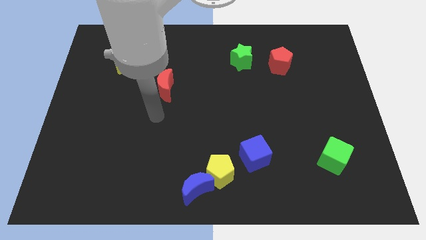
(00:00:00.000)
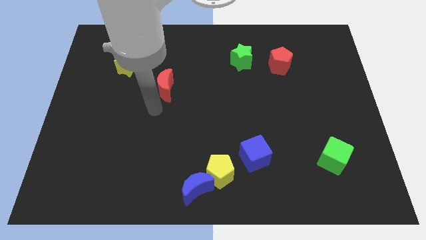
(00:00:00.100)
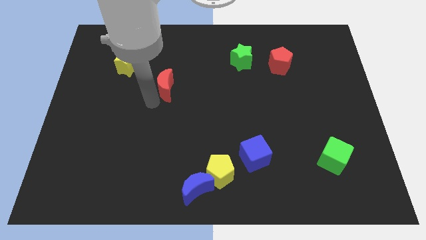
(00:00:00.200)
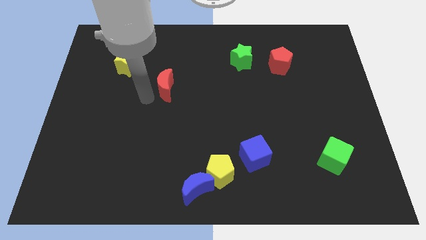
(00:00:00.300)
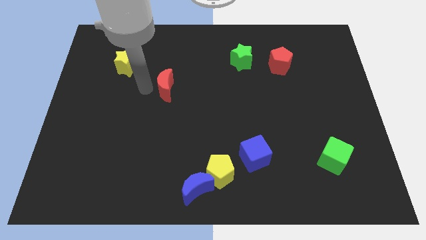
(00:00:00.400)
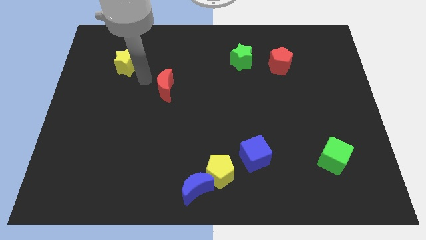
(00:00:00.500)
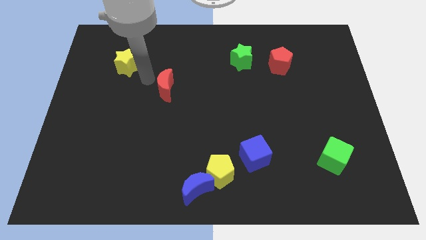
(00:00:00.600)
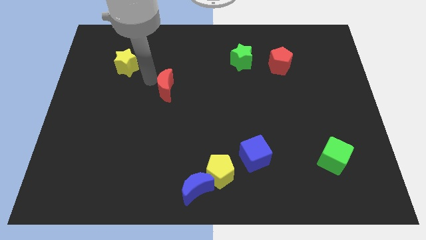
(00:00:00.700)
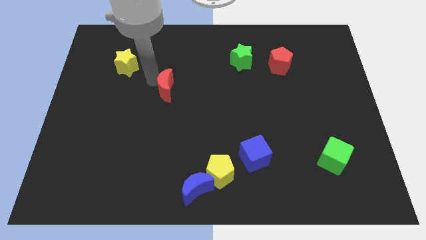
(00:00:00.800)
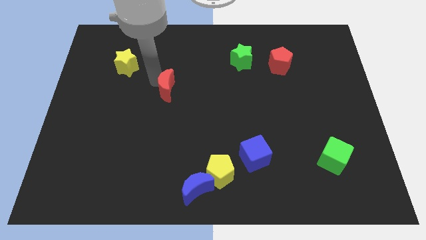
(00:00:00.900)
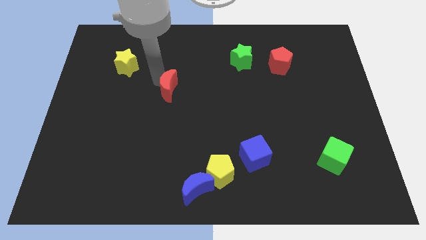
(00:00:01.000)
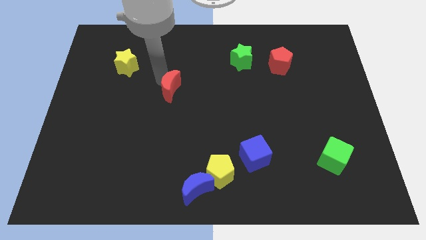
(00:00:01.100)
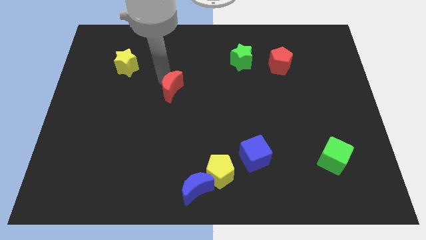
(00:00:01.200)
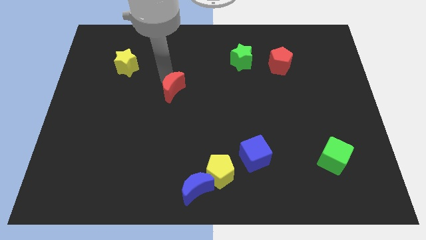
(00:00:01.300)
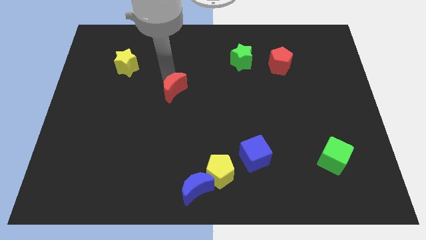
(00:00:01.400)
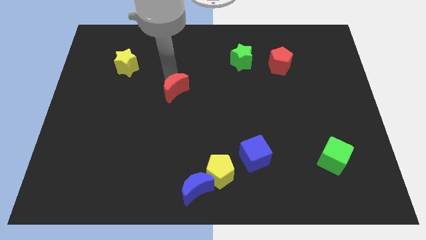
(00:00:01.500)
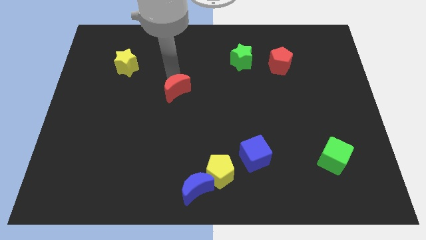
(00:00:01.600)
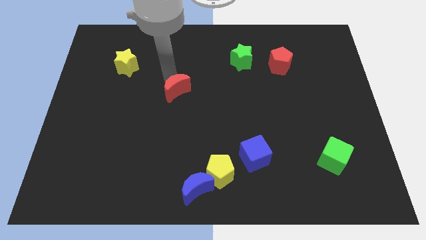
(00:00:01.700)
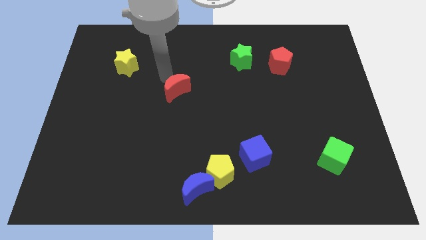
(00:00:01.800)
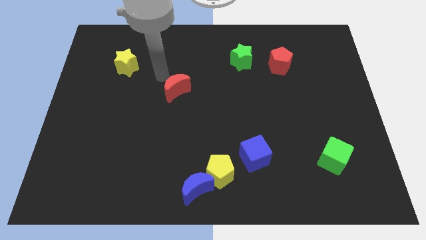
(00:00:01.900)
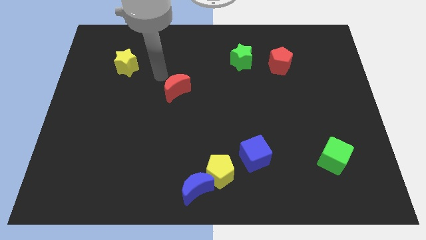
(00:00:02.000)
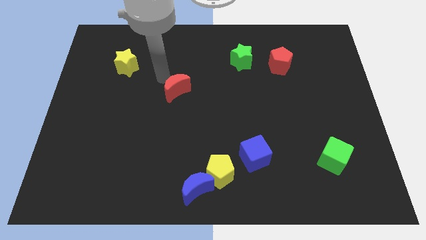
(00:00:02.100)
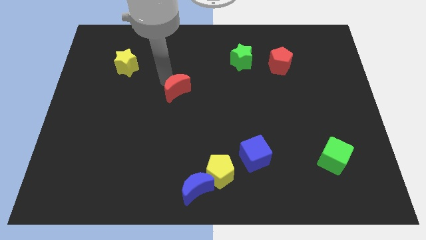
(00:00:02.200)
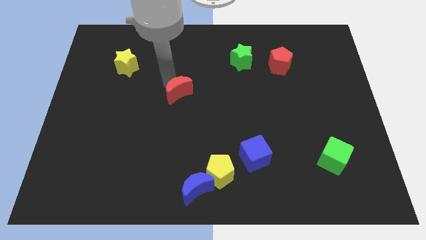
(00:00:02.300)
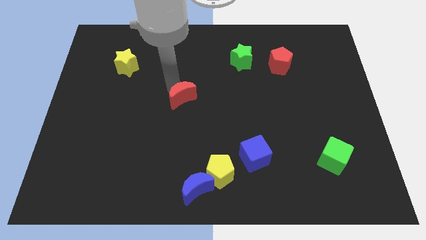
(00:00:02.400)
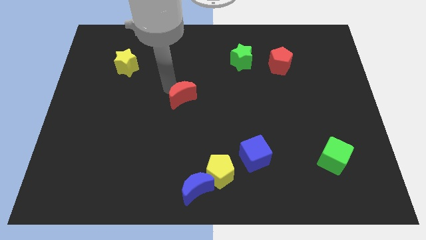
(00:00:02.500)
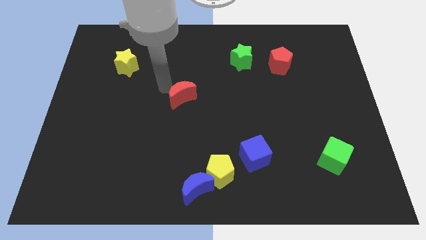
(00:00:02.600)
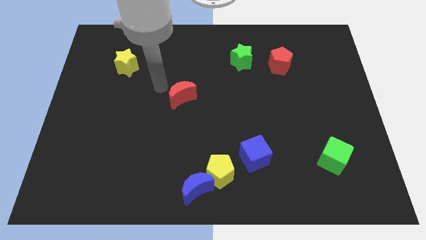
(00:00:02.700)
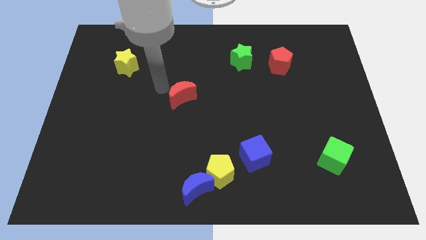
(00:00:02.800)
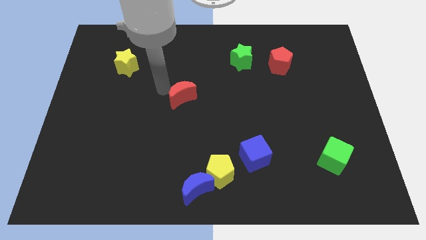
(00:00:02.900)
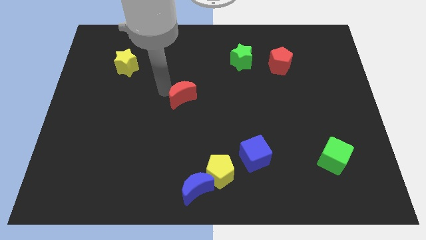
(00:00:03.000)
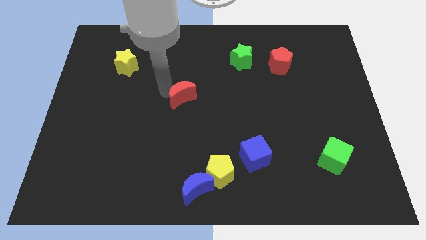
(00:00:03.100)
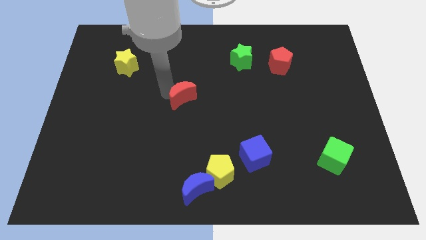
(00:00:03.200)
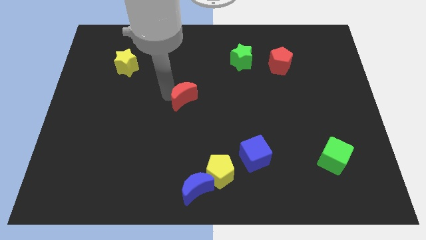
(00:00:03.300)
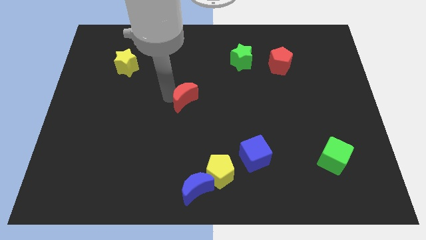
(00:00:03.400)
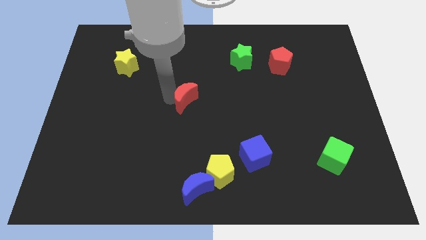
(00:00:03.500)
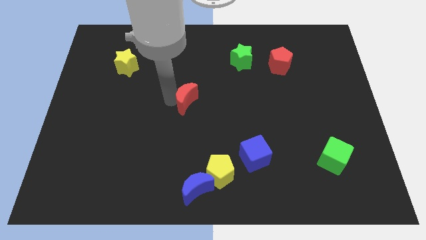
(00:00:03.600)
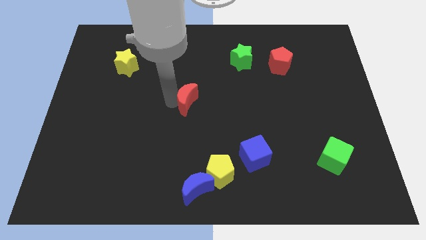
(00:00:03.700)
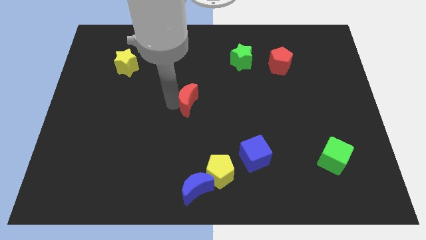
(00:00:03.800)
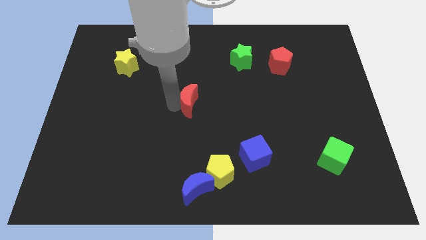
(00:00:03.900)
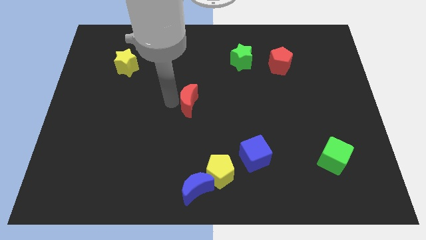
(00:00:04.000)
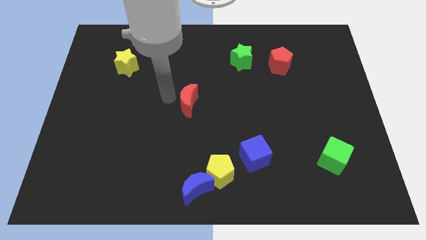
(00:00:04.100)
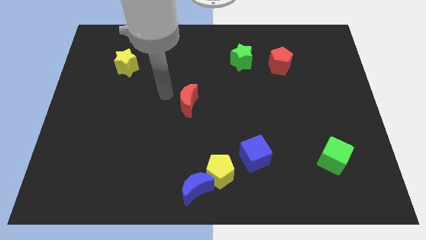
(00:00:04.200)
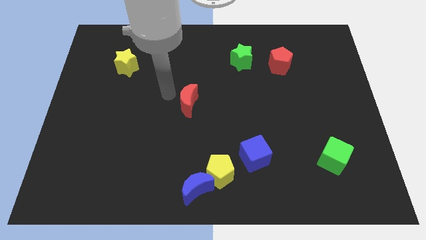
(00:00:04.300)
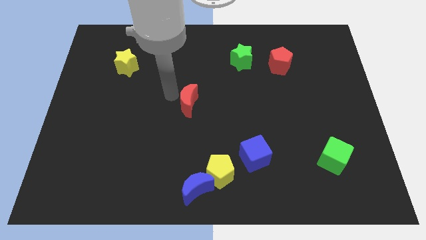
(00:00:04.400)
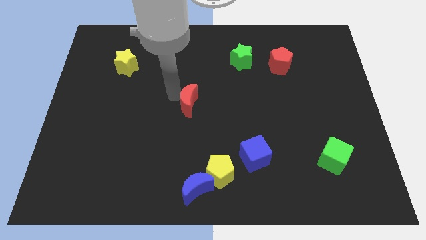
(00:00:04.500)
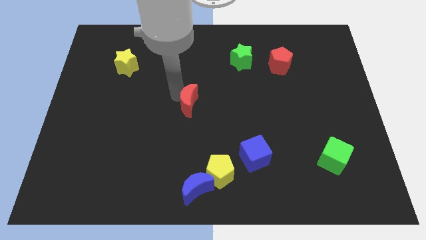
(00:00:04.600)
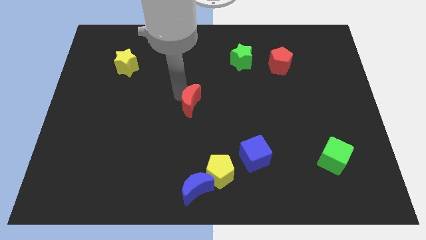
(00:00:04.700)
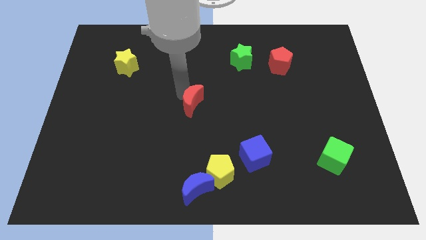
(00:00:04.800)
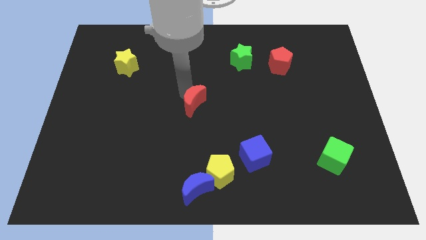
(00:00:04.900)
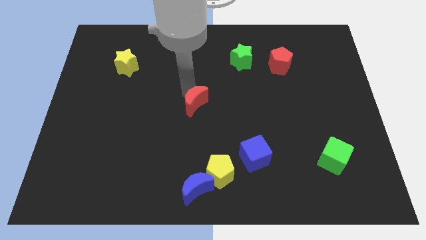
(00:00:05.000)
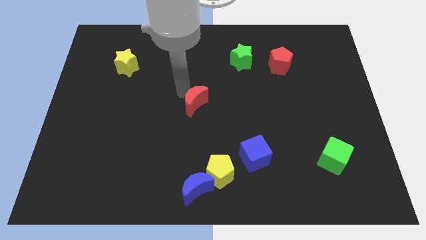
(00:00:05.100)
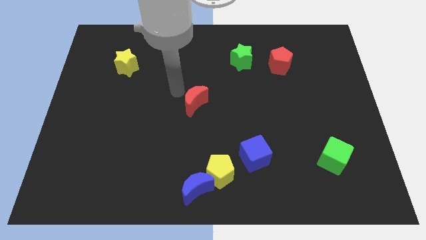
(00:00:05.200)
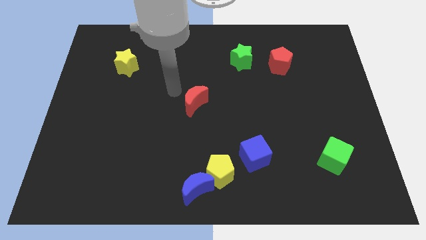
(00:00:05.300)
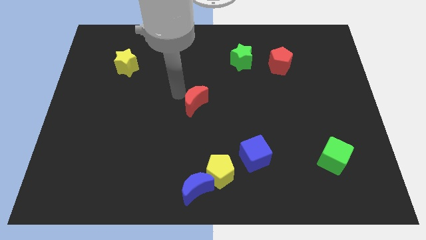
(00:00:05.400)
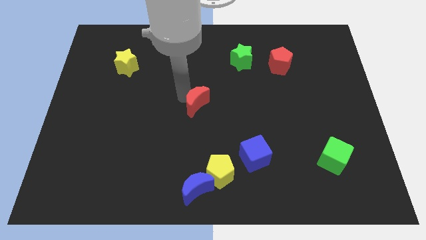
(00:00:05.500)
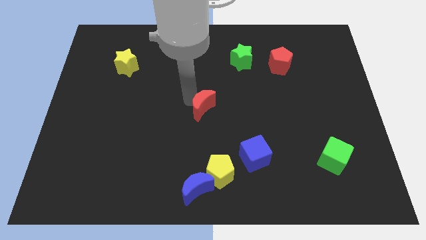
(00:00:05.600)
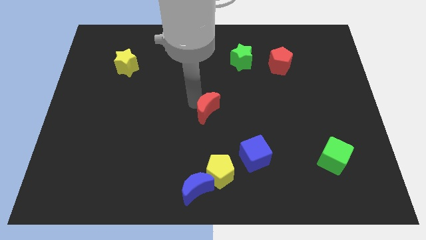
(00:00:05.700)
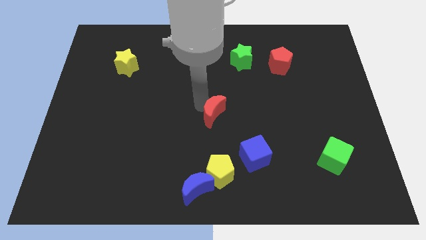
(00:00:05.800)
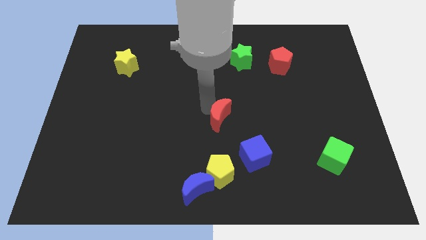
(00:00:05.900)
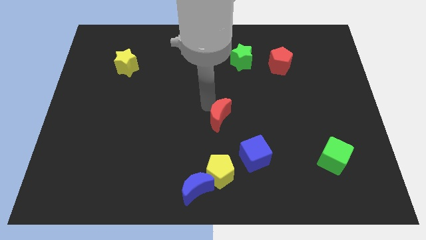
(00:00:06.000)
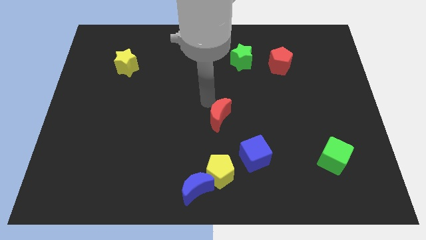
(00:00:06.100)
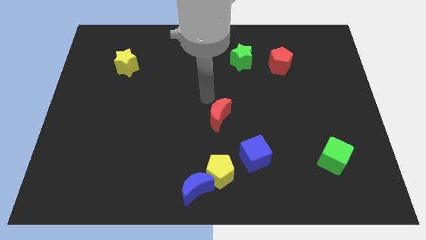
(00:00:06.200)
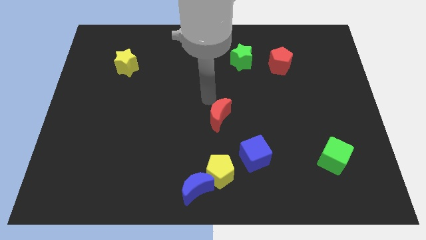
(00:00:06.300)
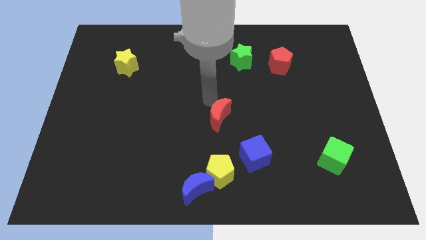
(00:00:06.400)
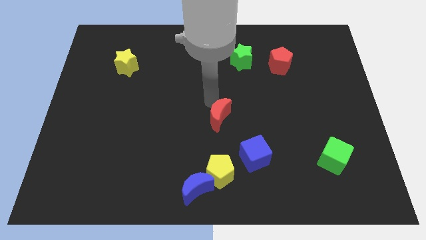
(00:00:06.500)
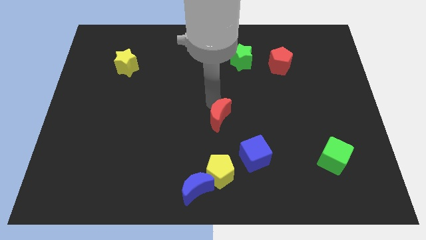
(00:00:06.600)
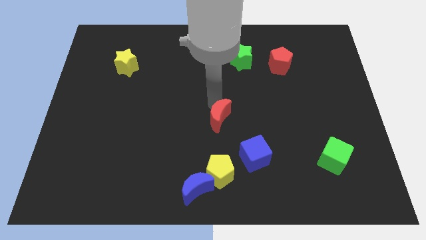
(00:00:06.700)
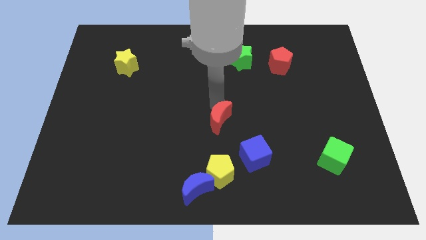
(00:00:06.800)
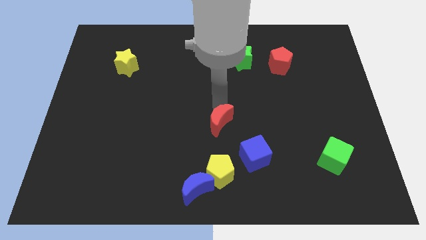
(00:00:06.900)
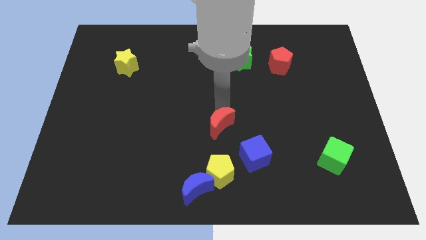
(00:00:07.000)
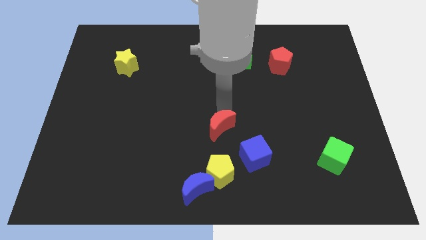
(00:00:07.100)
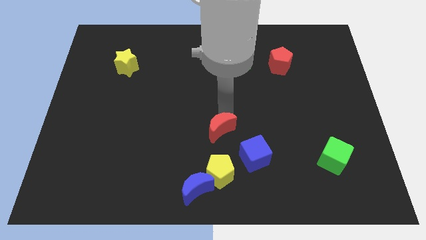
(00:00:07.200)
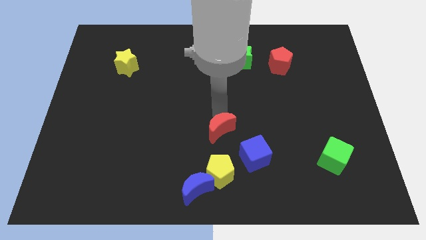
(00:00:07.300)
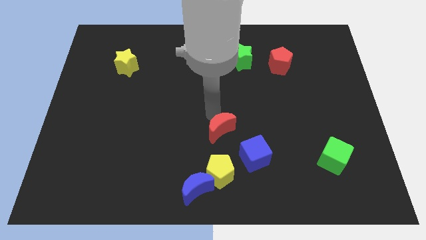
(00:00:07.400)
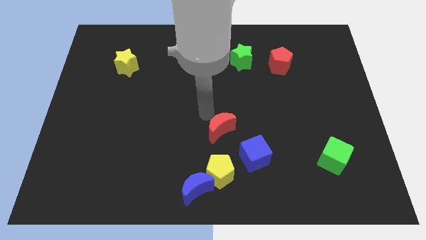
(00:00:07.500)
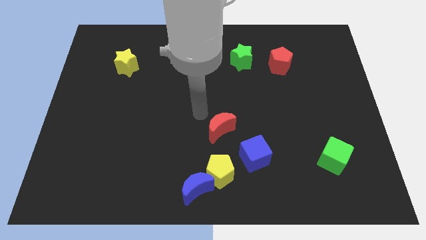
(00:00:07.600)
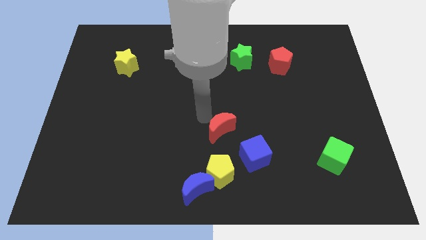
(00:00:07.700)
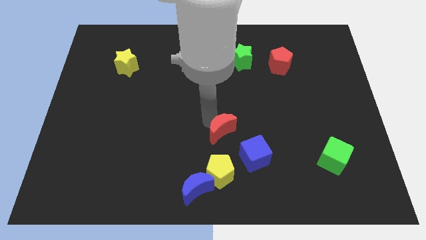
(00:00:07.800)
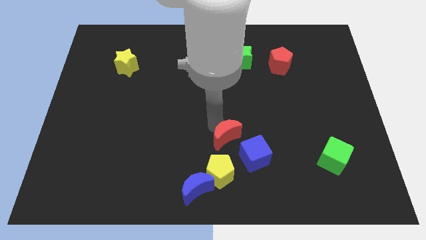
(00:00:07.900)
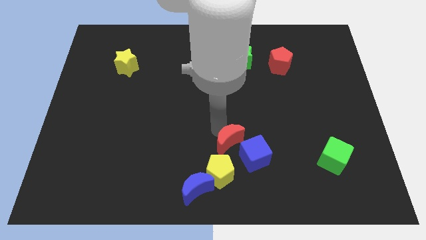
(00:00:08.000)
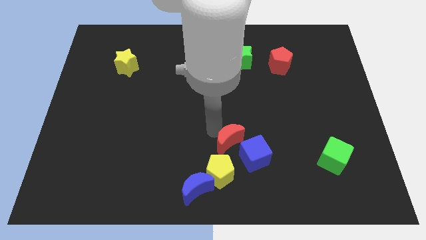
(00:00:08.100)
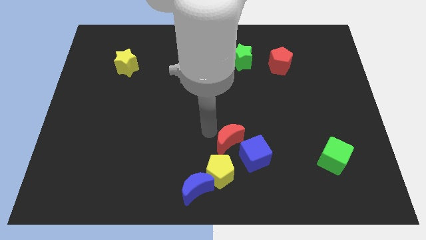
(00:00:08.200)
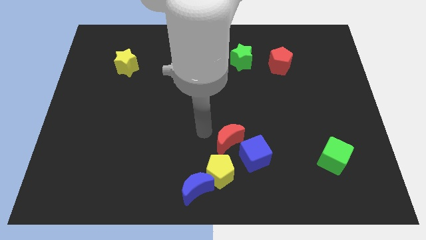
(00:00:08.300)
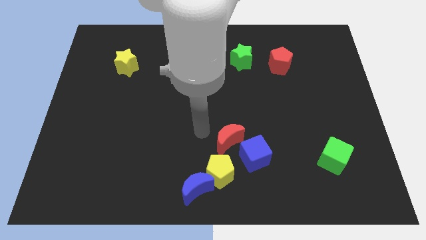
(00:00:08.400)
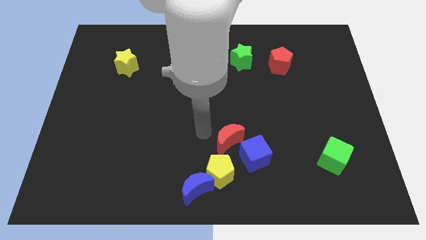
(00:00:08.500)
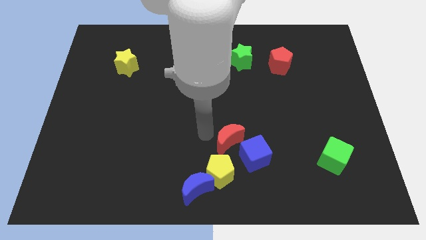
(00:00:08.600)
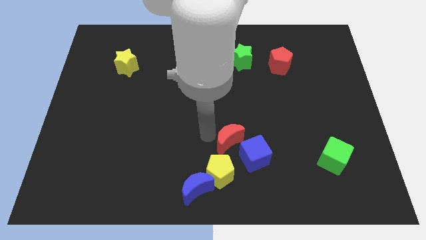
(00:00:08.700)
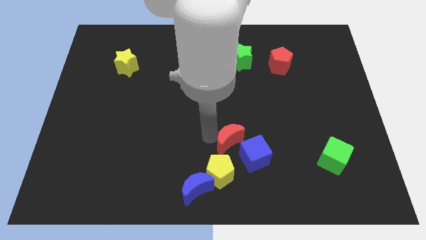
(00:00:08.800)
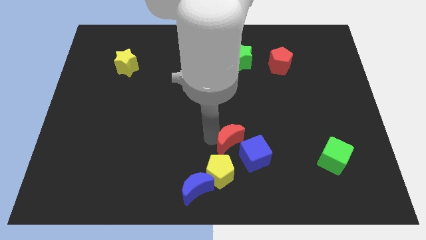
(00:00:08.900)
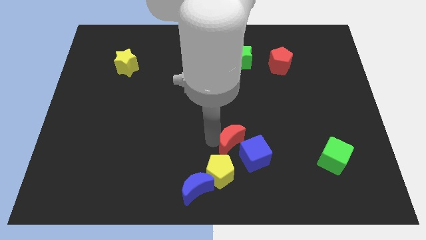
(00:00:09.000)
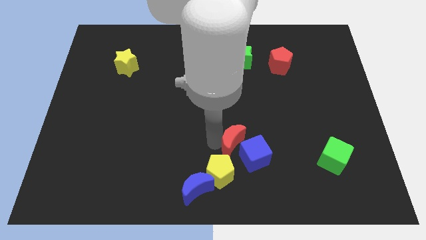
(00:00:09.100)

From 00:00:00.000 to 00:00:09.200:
push the red moon next to the blue cube
